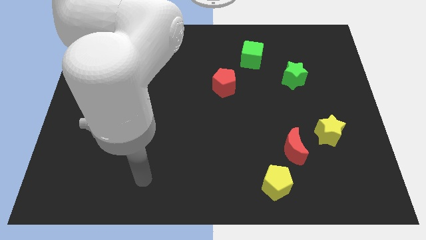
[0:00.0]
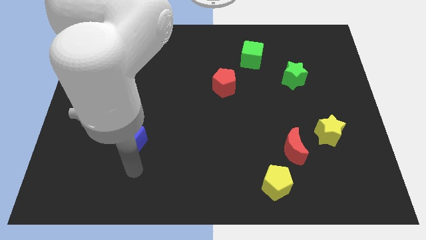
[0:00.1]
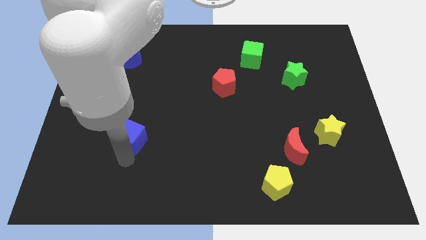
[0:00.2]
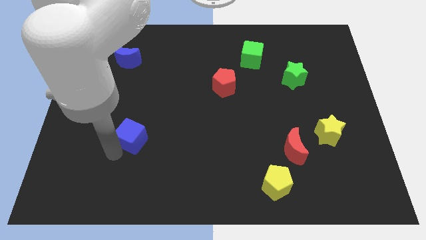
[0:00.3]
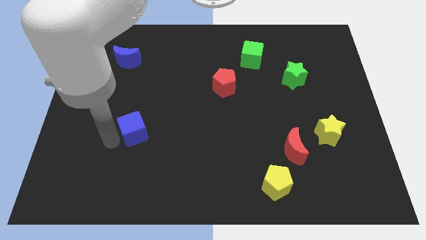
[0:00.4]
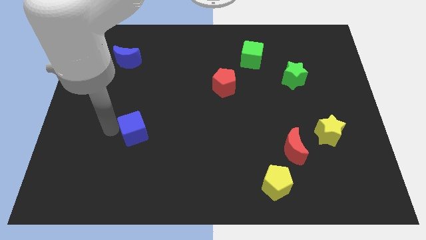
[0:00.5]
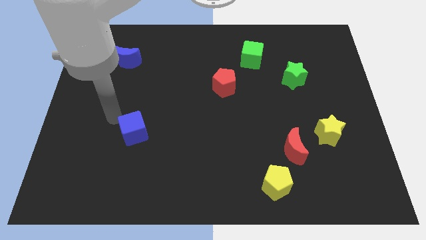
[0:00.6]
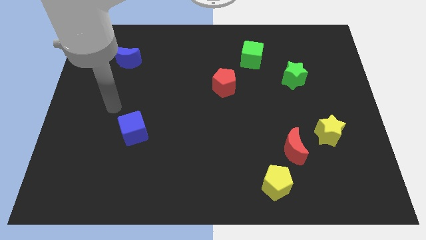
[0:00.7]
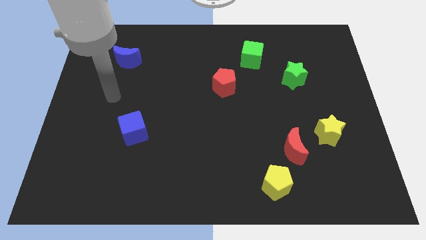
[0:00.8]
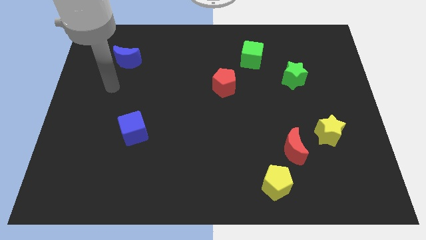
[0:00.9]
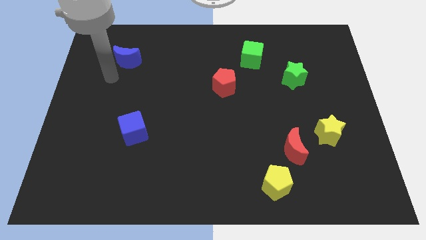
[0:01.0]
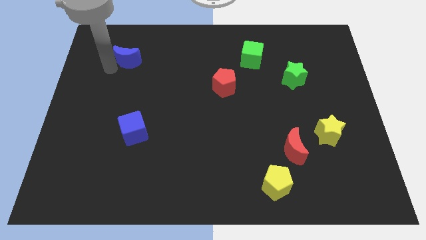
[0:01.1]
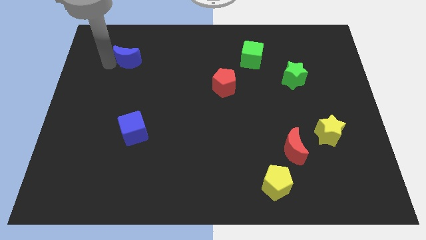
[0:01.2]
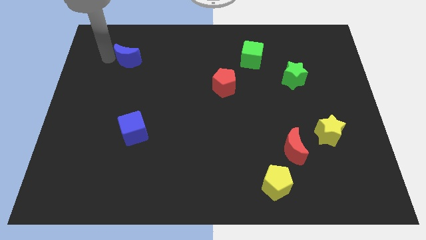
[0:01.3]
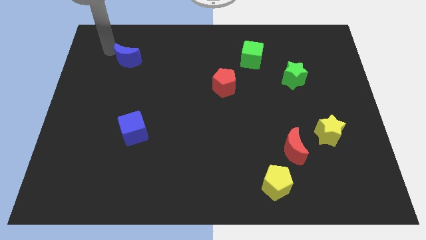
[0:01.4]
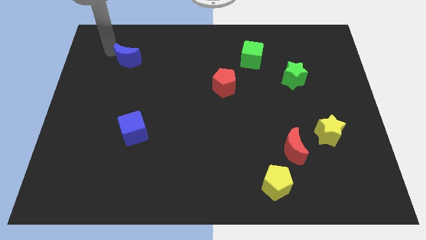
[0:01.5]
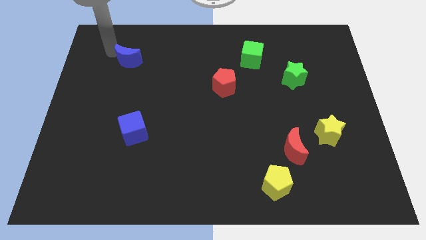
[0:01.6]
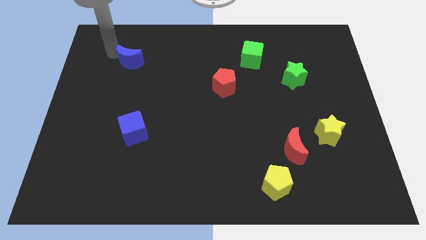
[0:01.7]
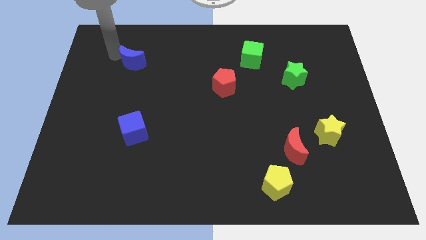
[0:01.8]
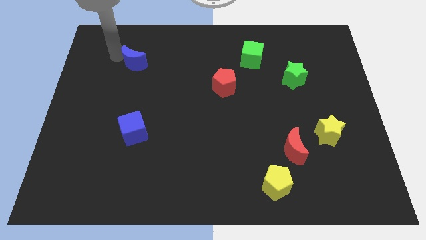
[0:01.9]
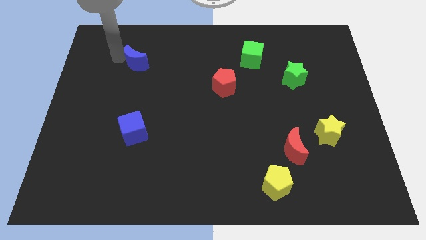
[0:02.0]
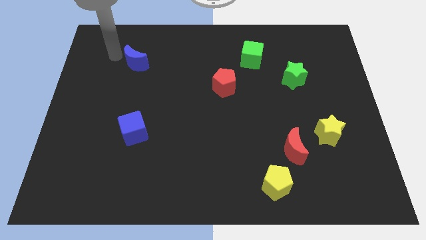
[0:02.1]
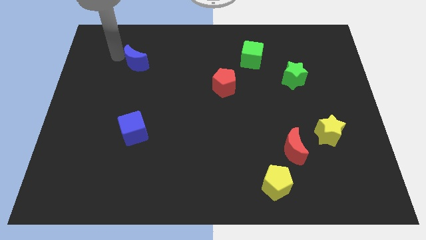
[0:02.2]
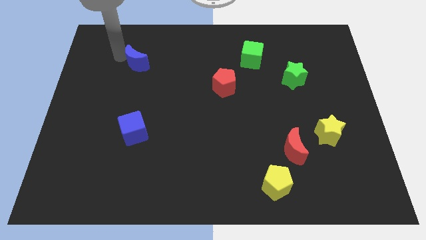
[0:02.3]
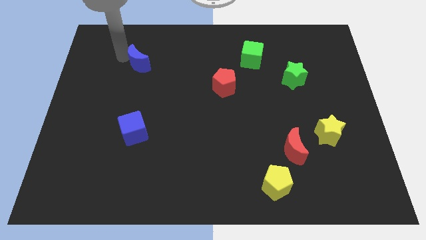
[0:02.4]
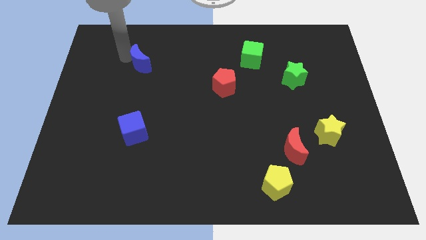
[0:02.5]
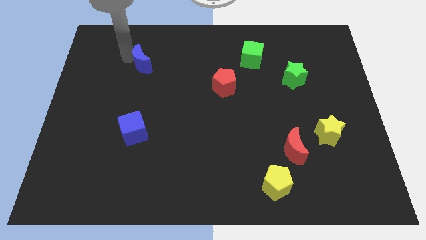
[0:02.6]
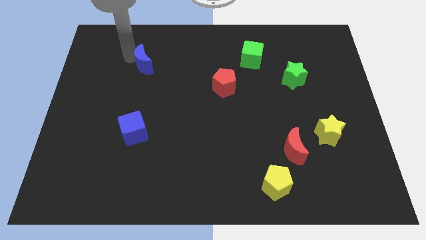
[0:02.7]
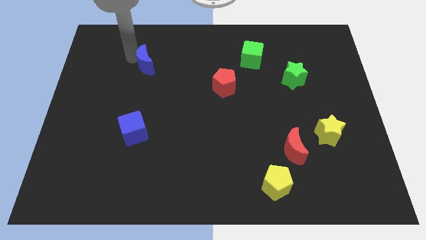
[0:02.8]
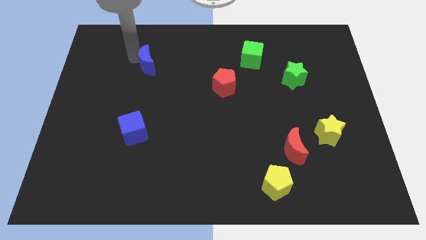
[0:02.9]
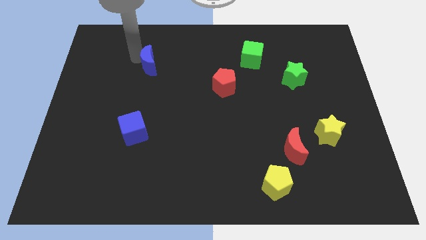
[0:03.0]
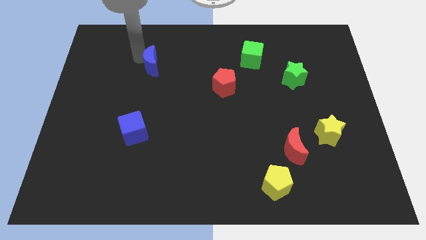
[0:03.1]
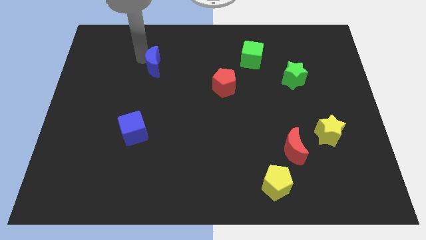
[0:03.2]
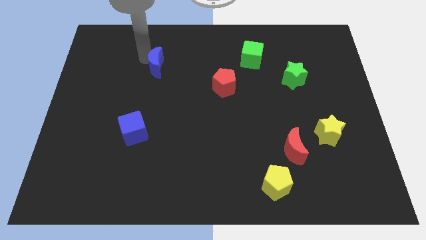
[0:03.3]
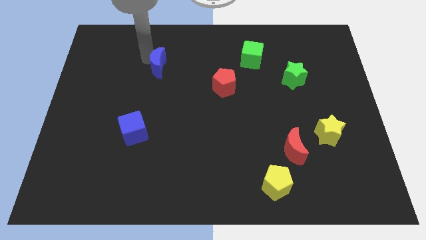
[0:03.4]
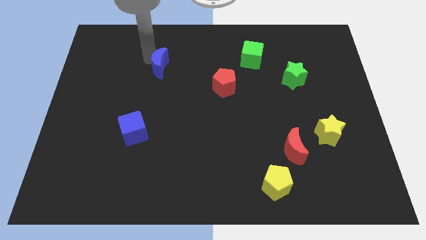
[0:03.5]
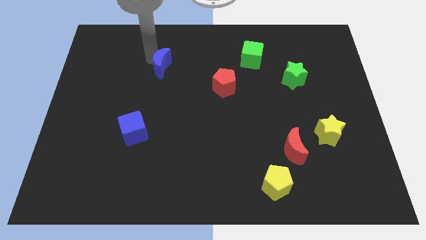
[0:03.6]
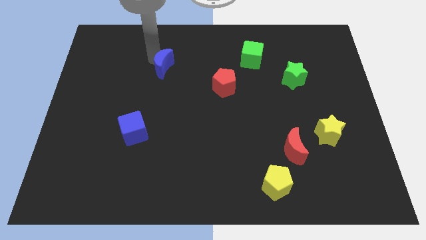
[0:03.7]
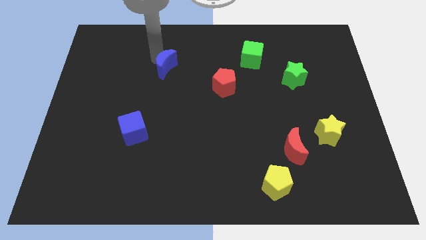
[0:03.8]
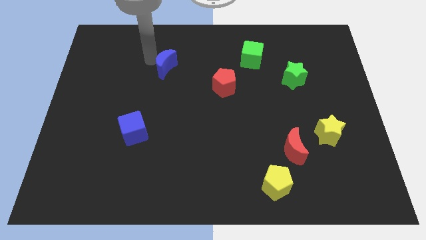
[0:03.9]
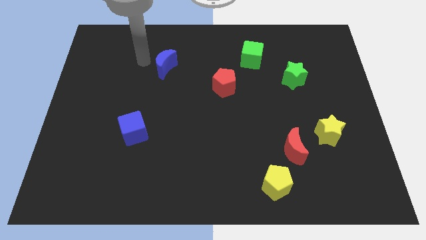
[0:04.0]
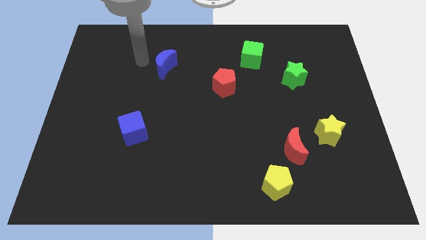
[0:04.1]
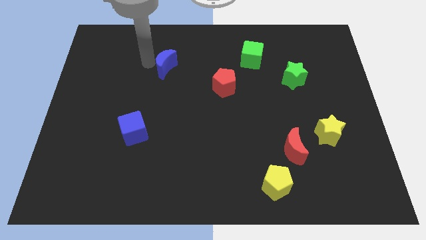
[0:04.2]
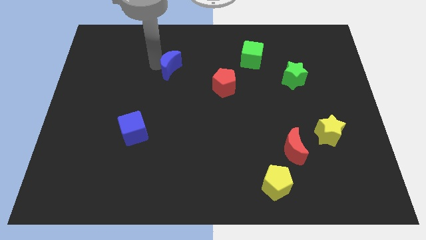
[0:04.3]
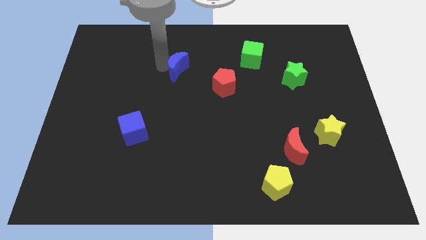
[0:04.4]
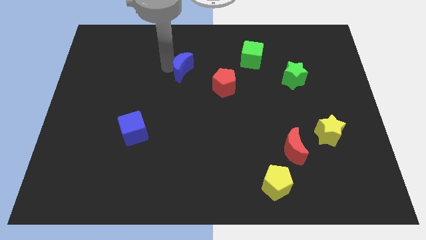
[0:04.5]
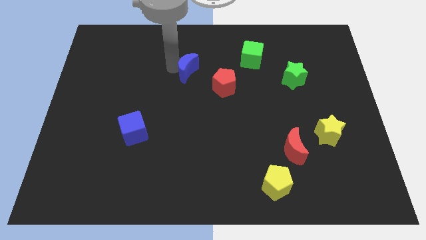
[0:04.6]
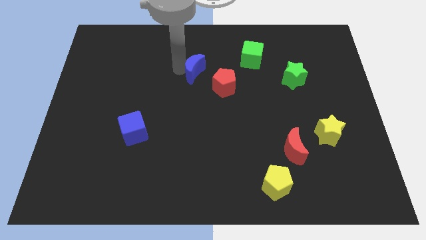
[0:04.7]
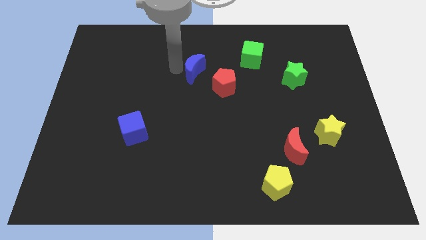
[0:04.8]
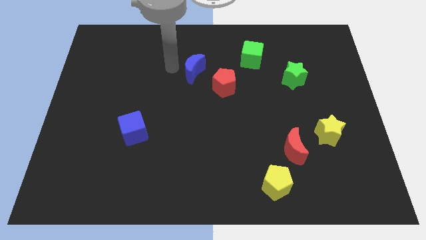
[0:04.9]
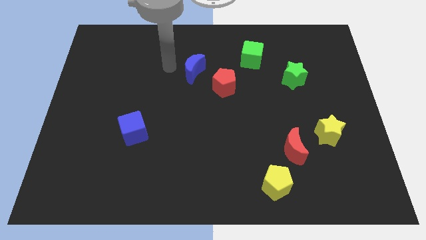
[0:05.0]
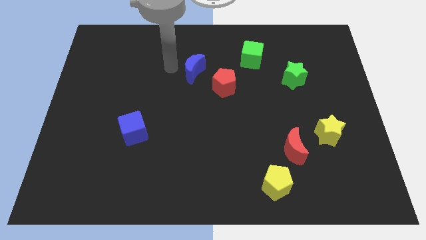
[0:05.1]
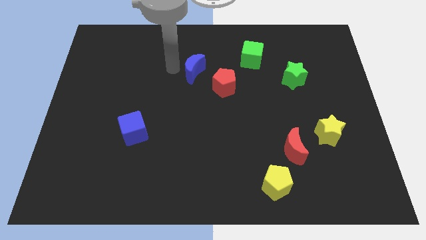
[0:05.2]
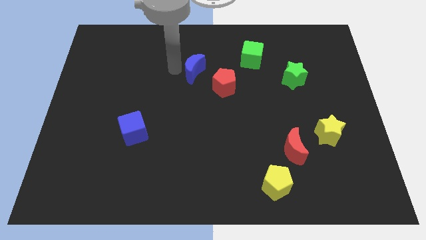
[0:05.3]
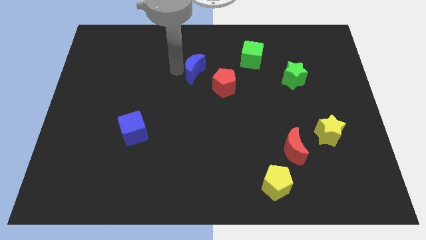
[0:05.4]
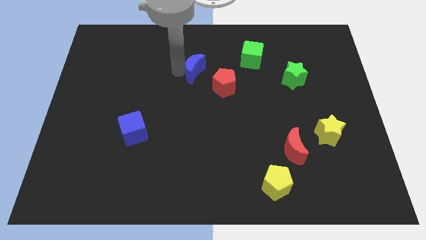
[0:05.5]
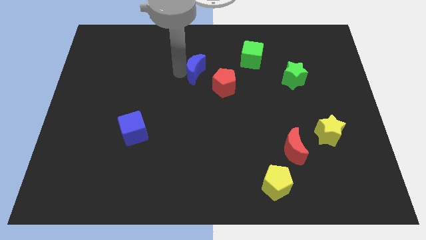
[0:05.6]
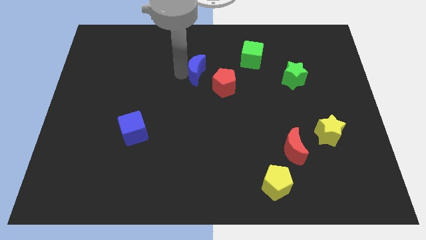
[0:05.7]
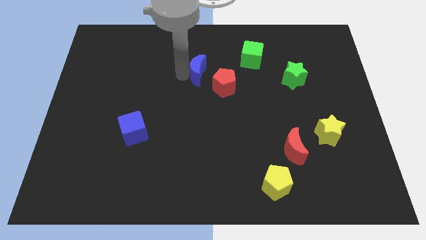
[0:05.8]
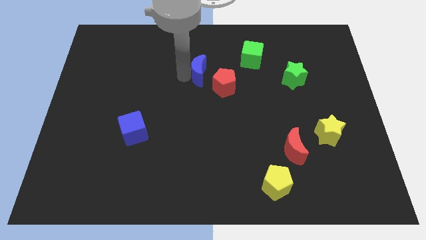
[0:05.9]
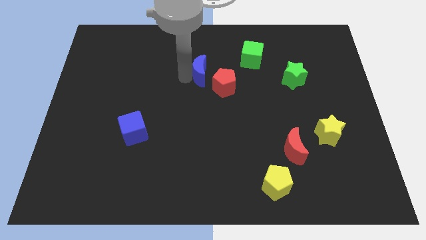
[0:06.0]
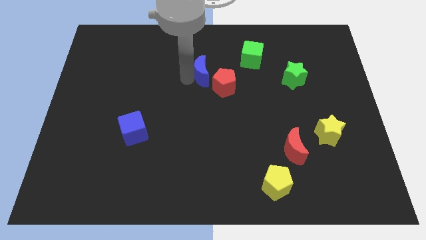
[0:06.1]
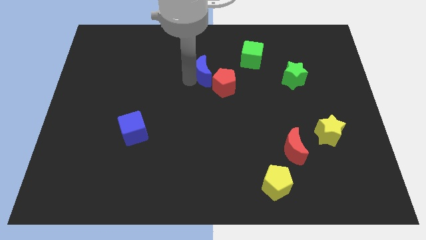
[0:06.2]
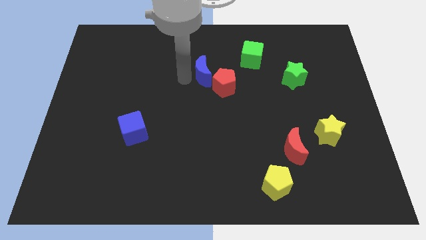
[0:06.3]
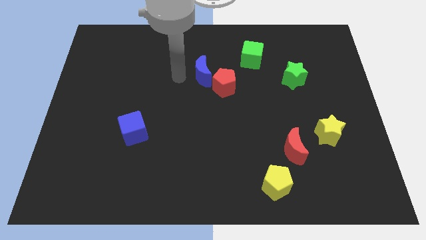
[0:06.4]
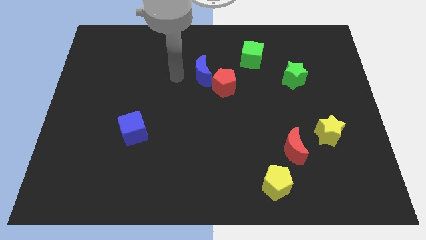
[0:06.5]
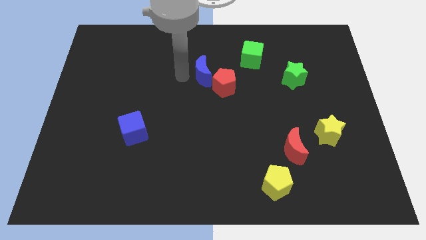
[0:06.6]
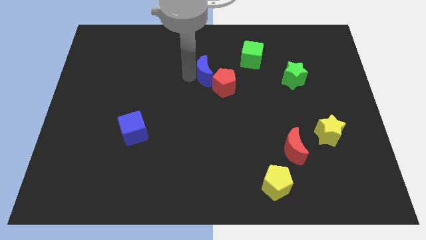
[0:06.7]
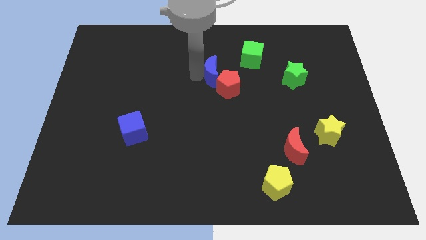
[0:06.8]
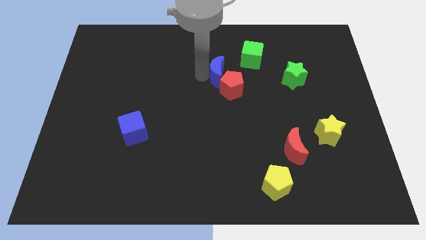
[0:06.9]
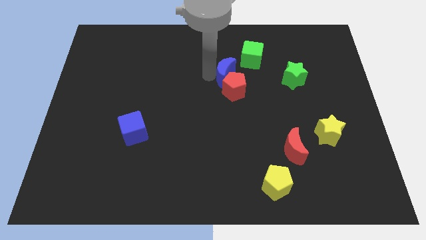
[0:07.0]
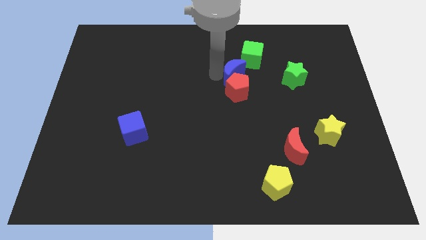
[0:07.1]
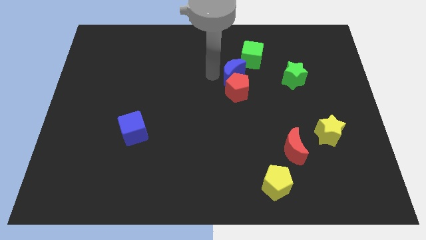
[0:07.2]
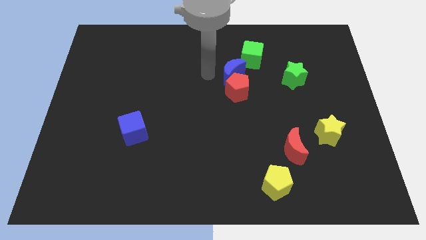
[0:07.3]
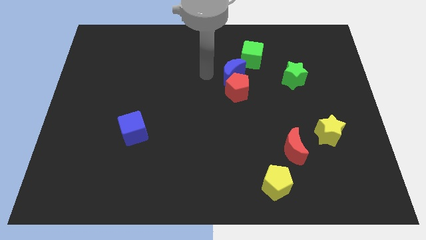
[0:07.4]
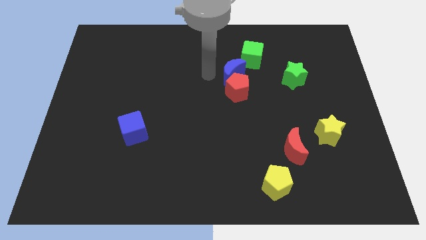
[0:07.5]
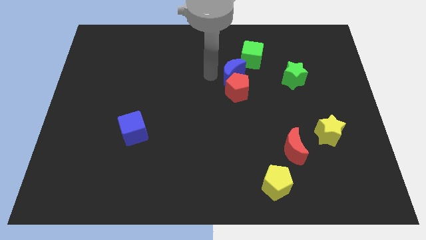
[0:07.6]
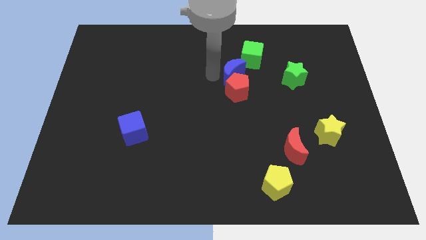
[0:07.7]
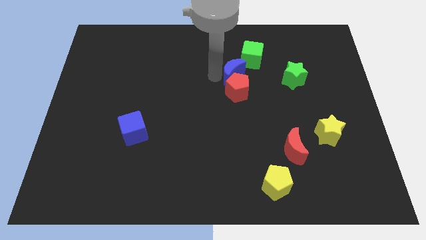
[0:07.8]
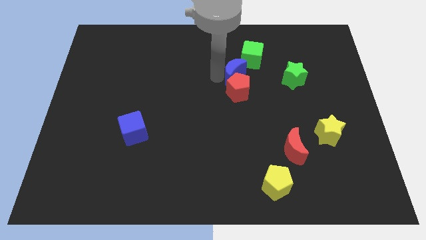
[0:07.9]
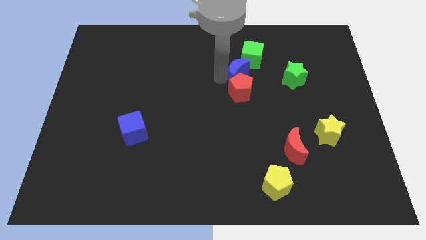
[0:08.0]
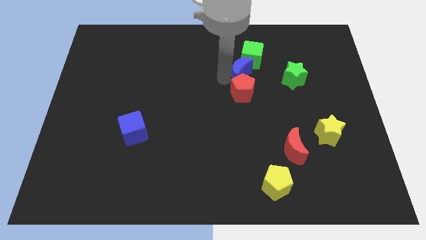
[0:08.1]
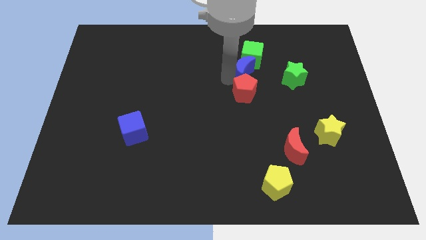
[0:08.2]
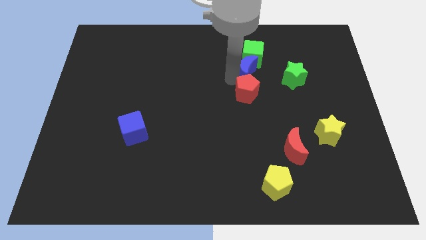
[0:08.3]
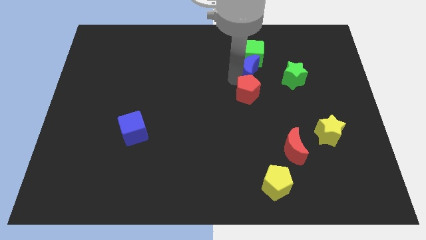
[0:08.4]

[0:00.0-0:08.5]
move the blue moon to the bottom right of the green cube
